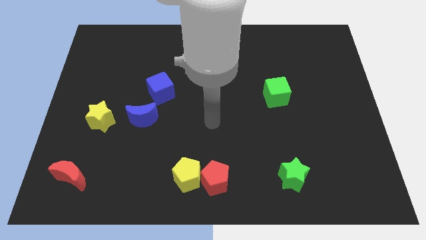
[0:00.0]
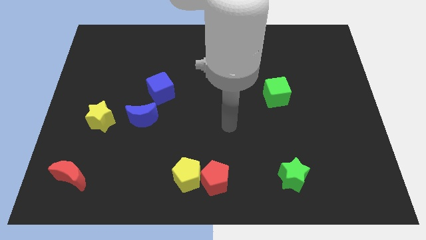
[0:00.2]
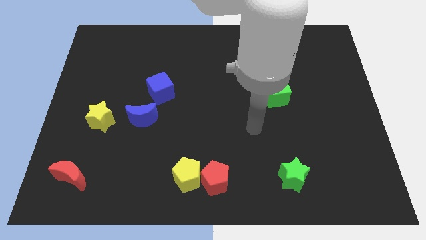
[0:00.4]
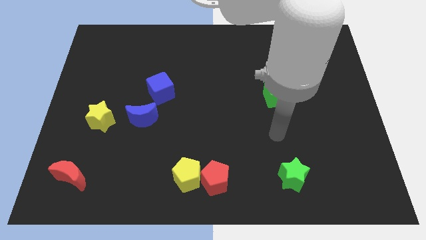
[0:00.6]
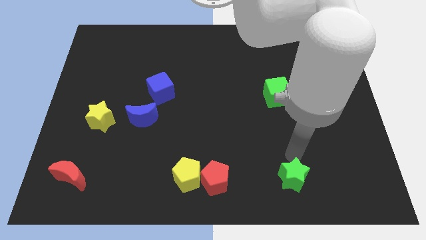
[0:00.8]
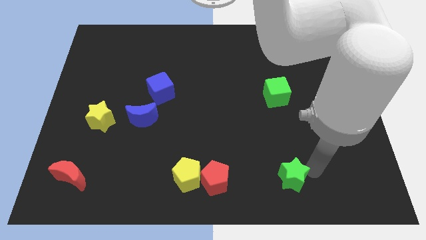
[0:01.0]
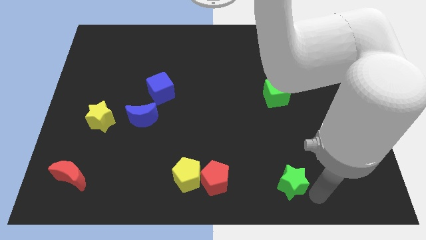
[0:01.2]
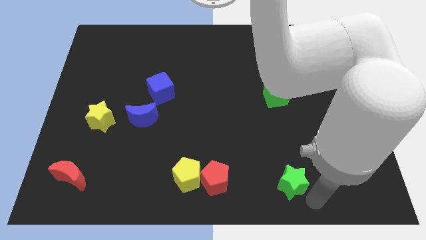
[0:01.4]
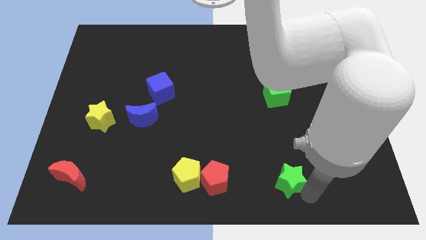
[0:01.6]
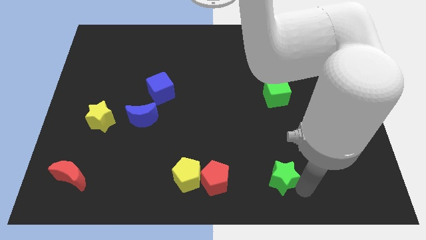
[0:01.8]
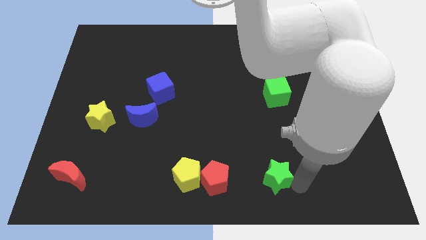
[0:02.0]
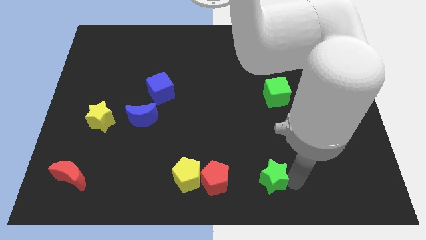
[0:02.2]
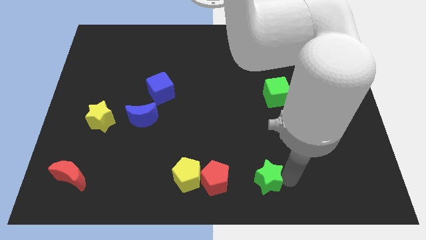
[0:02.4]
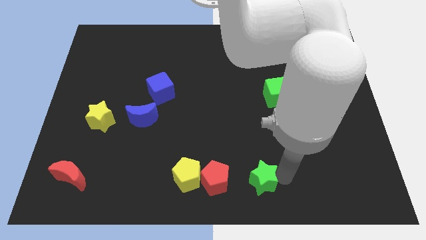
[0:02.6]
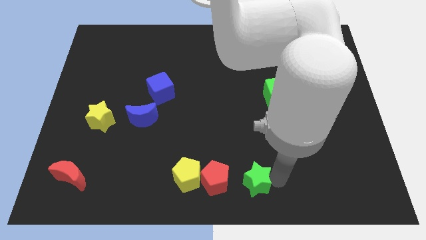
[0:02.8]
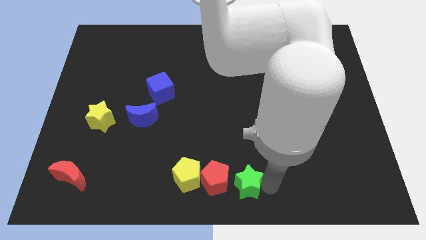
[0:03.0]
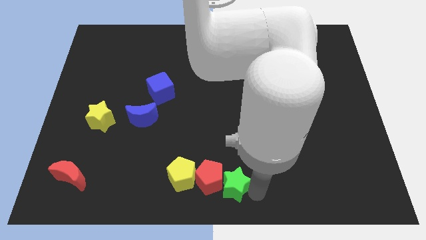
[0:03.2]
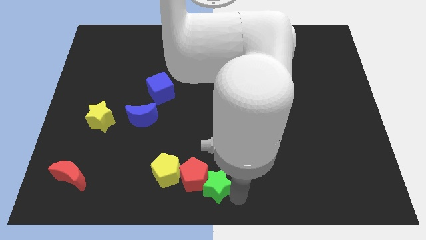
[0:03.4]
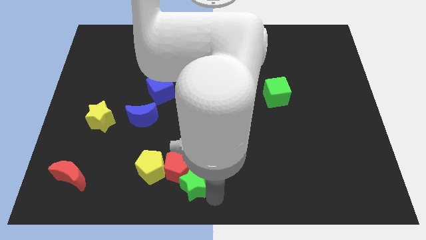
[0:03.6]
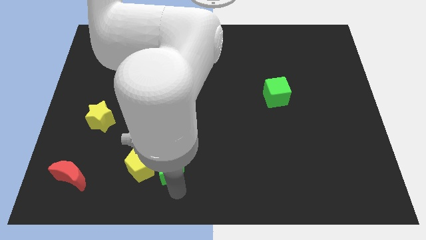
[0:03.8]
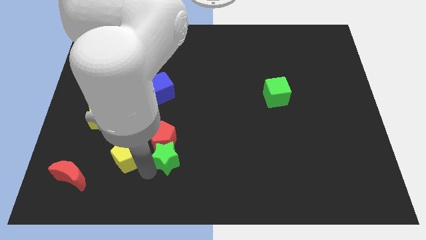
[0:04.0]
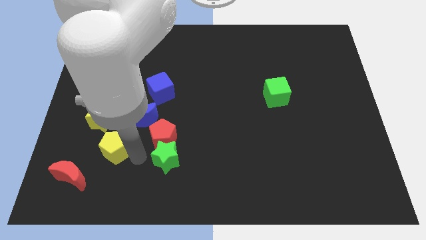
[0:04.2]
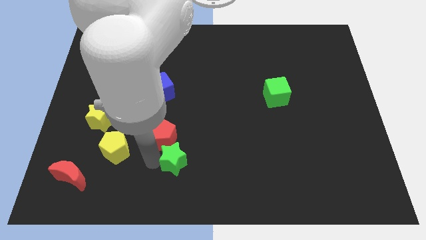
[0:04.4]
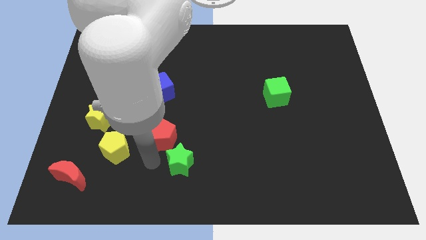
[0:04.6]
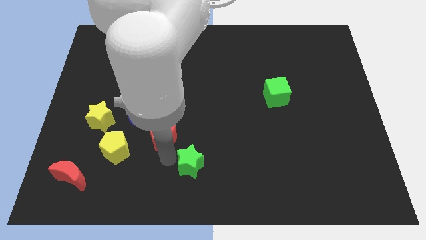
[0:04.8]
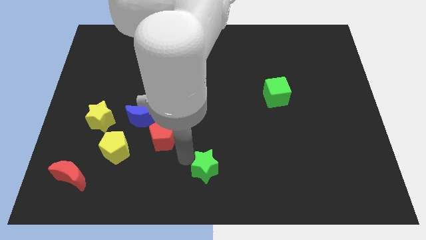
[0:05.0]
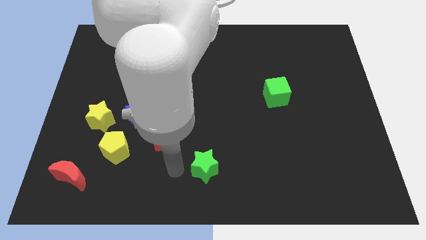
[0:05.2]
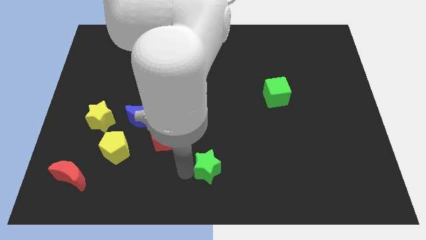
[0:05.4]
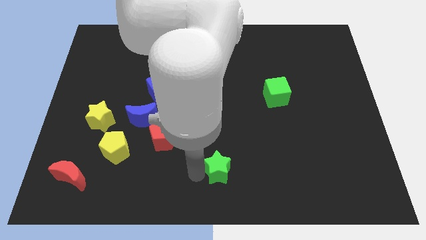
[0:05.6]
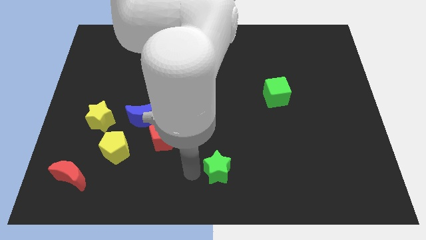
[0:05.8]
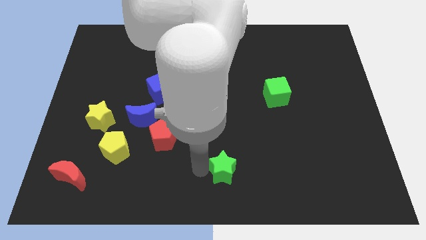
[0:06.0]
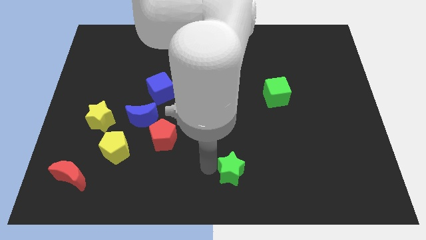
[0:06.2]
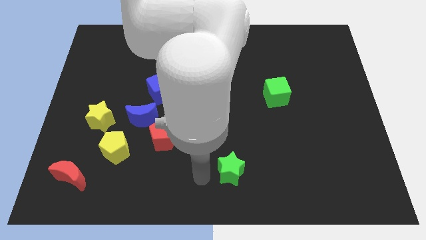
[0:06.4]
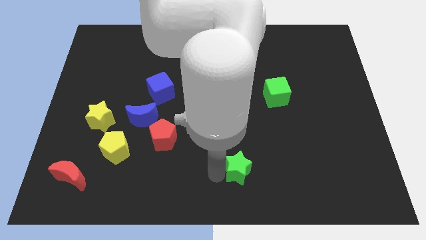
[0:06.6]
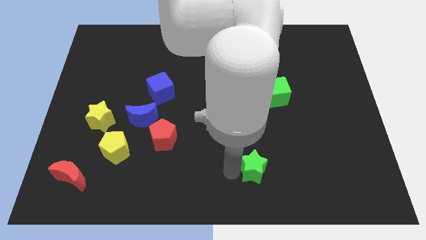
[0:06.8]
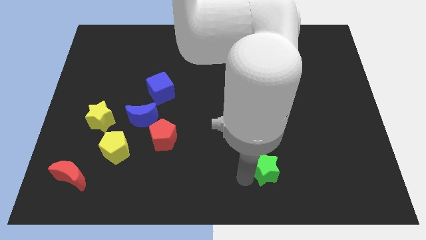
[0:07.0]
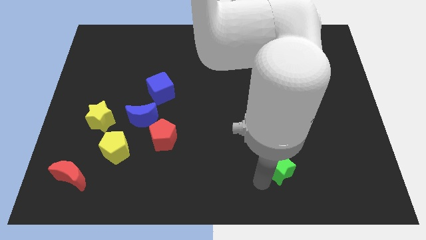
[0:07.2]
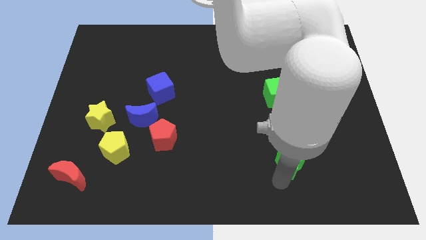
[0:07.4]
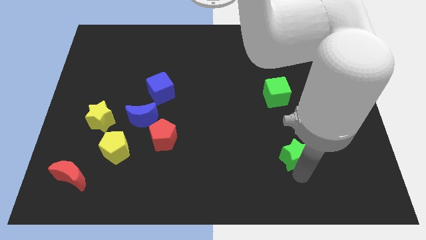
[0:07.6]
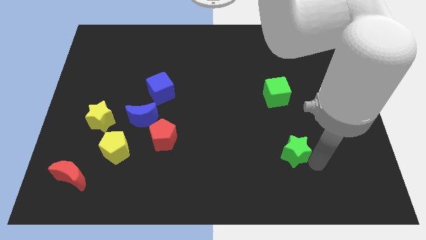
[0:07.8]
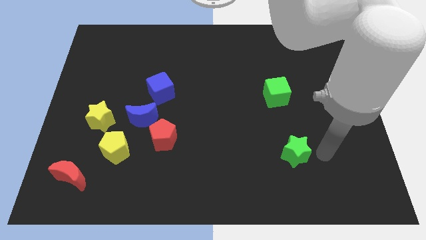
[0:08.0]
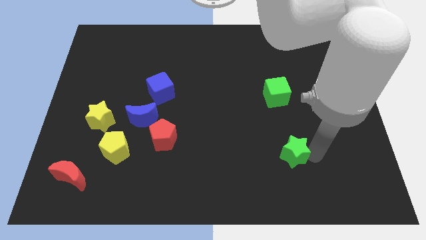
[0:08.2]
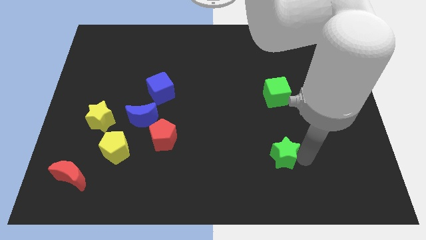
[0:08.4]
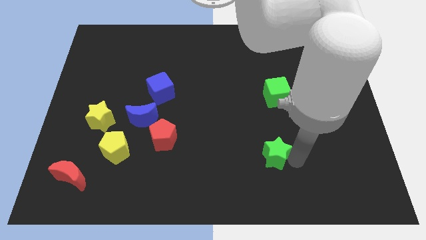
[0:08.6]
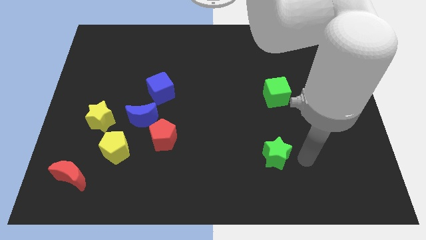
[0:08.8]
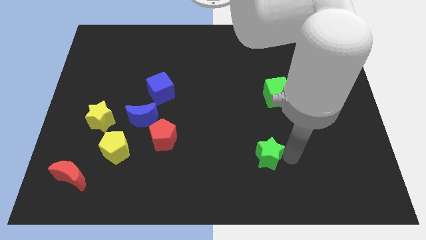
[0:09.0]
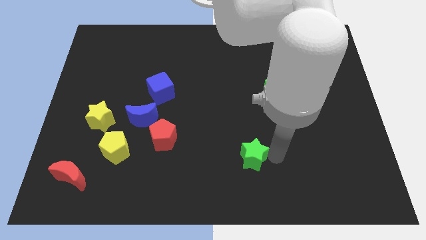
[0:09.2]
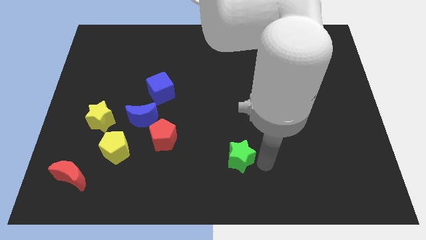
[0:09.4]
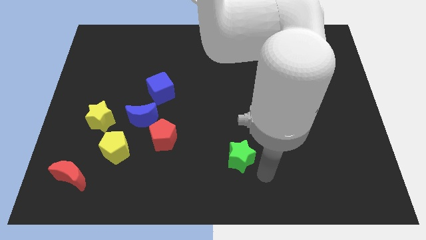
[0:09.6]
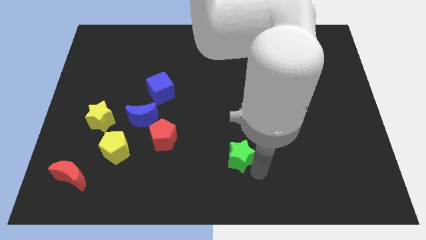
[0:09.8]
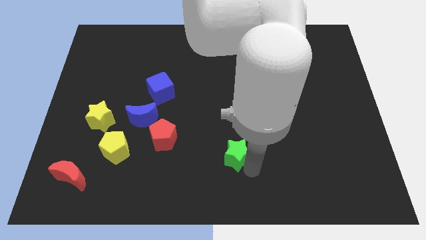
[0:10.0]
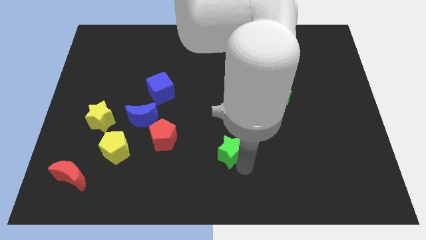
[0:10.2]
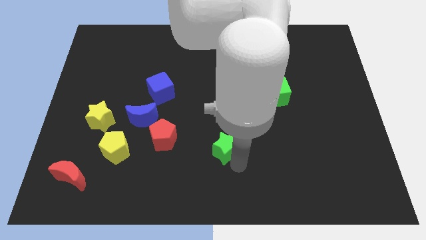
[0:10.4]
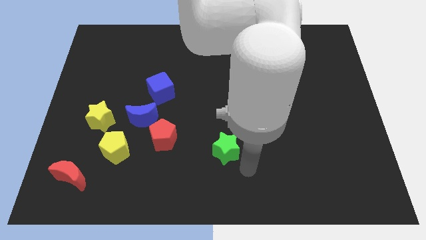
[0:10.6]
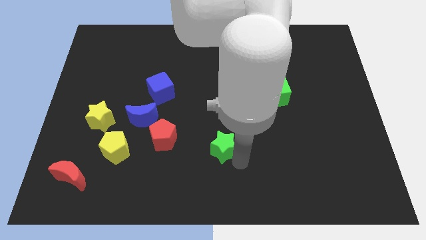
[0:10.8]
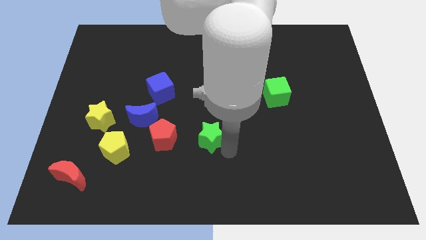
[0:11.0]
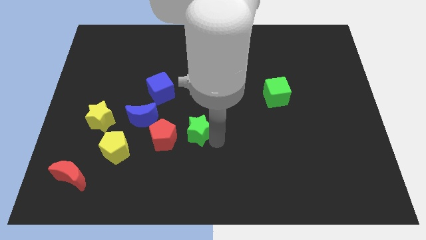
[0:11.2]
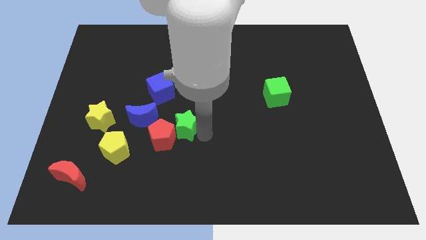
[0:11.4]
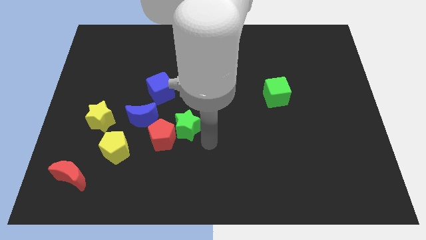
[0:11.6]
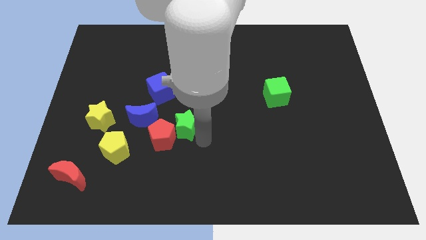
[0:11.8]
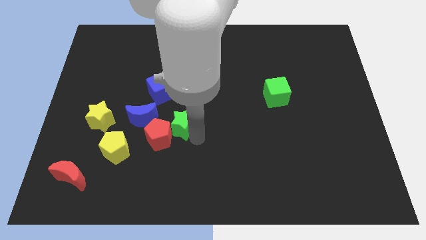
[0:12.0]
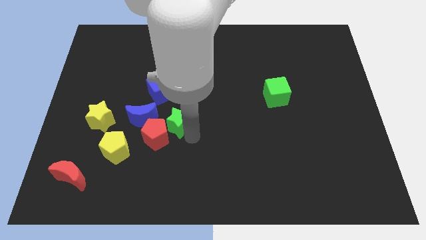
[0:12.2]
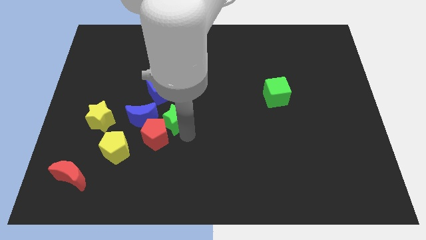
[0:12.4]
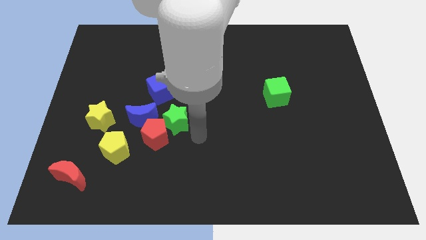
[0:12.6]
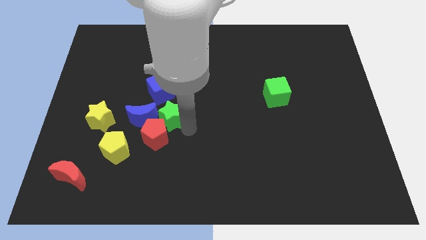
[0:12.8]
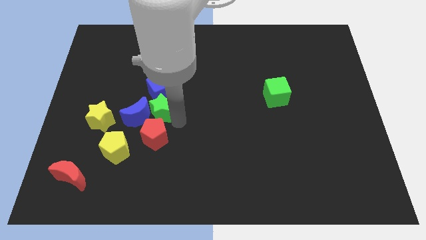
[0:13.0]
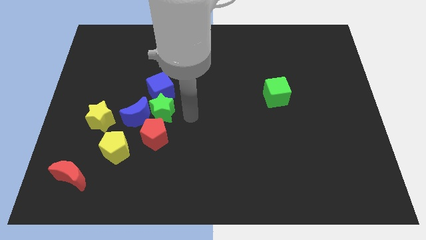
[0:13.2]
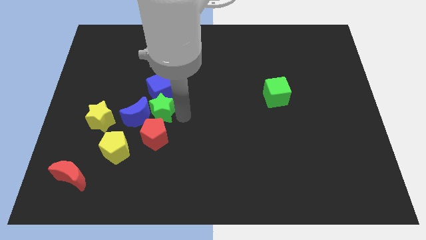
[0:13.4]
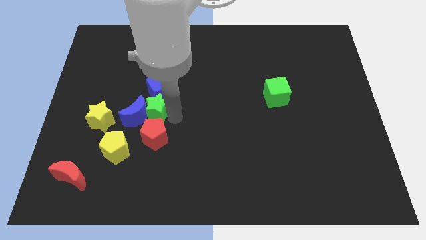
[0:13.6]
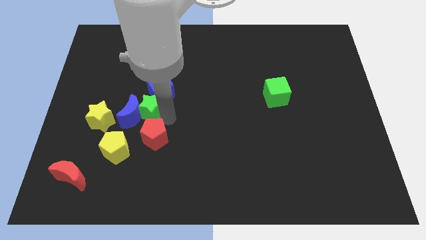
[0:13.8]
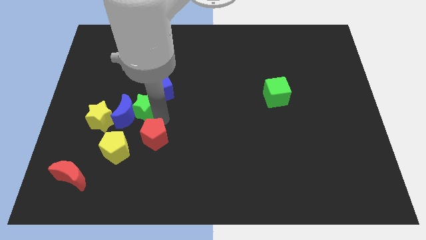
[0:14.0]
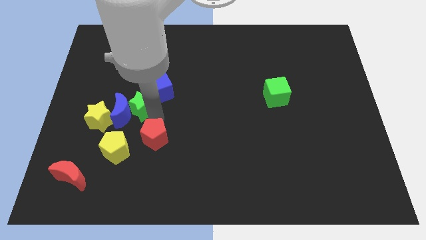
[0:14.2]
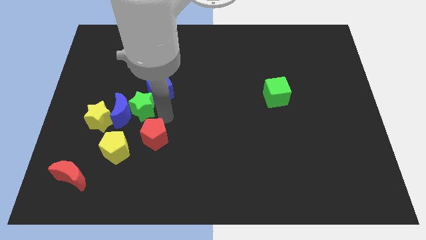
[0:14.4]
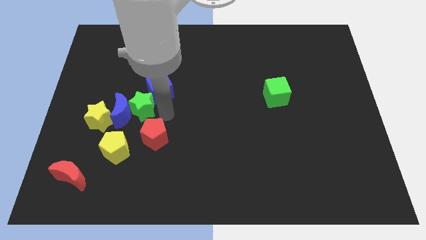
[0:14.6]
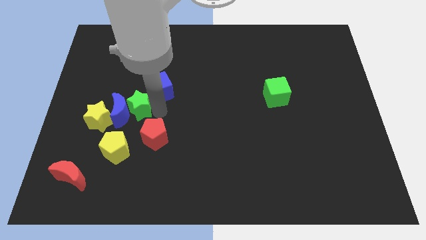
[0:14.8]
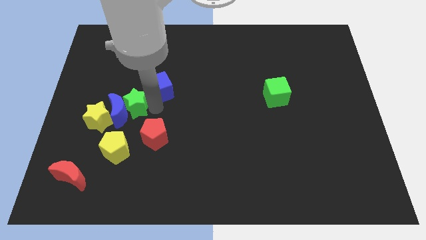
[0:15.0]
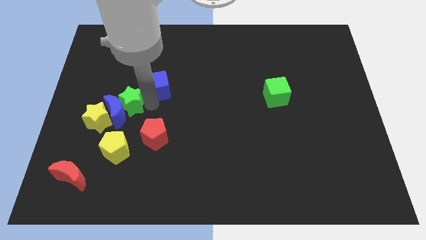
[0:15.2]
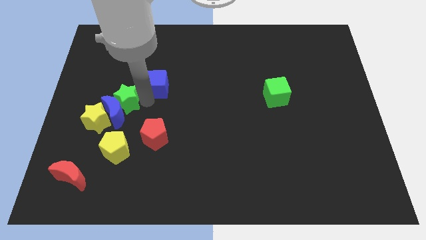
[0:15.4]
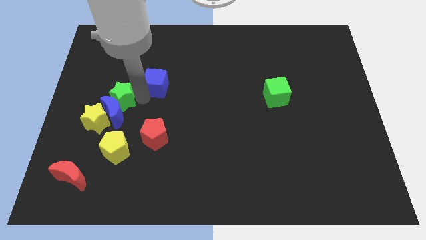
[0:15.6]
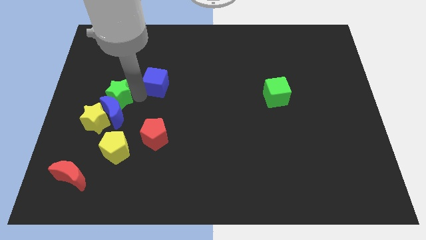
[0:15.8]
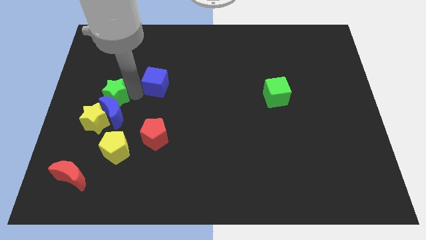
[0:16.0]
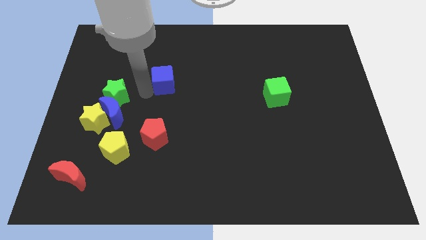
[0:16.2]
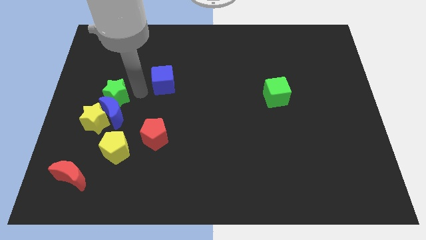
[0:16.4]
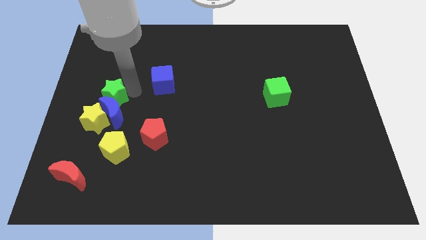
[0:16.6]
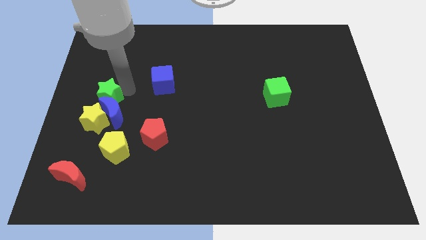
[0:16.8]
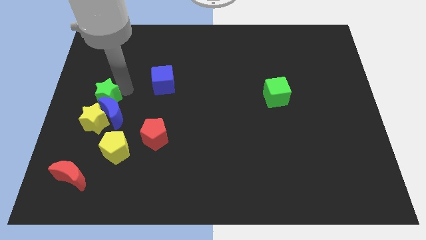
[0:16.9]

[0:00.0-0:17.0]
push the green star to the left side of the board
